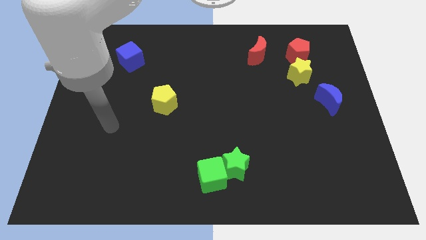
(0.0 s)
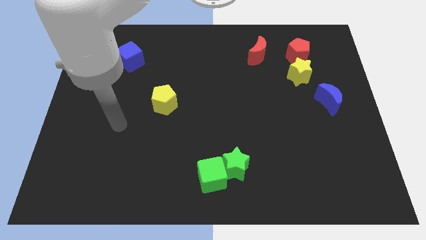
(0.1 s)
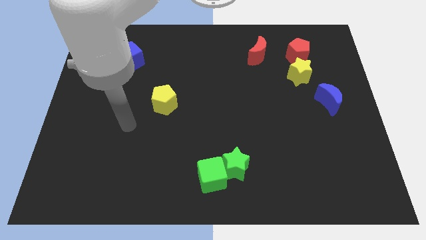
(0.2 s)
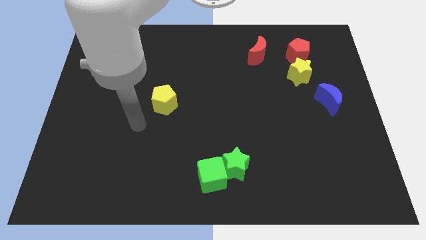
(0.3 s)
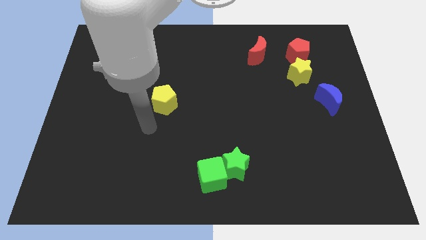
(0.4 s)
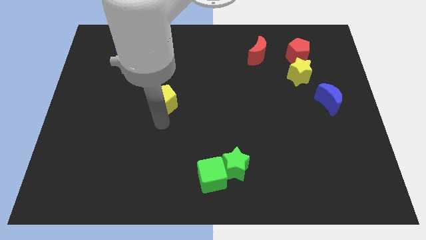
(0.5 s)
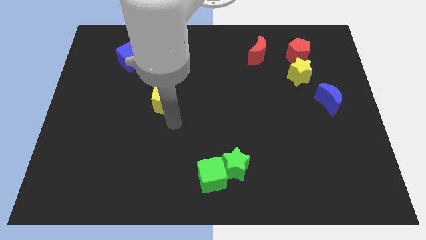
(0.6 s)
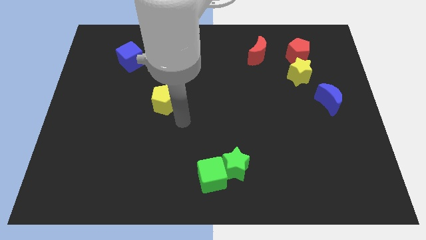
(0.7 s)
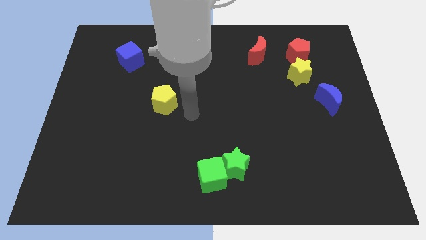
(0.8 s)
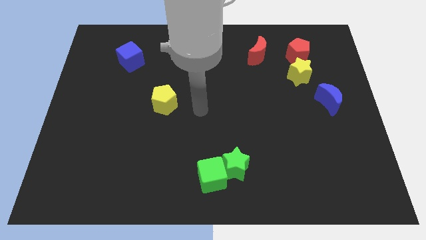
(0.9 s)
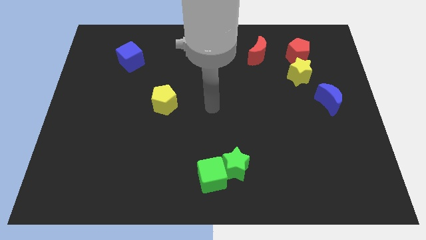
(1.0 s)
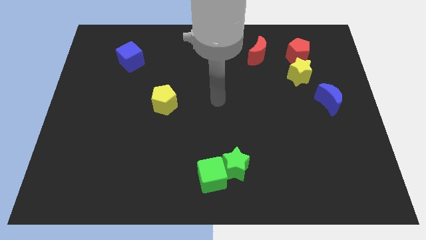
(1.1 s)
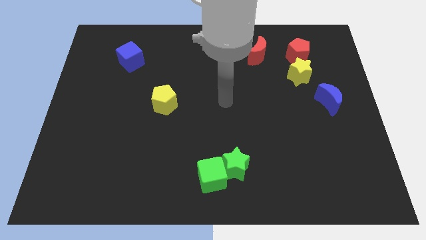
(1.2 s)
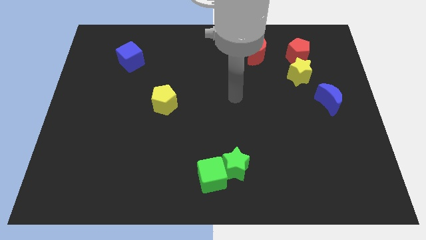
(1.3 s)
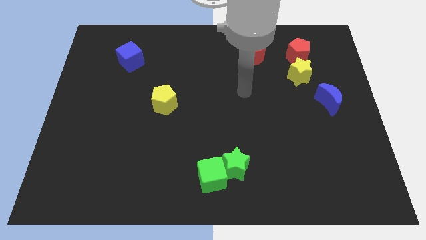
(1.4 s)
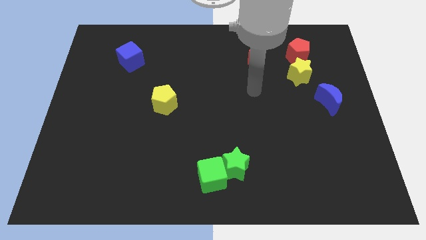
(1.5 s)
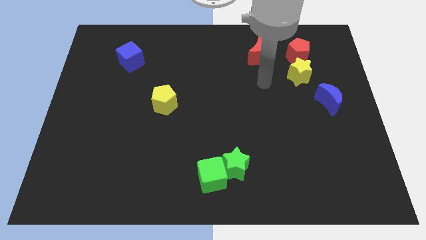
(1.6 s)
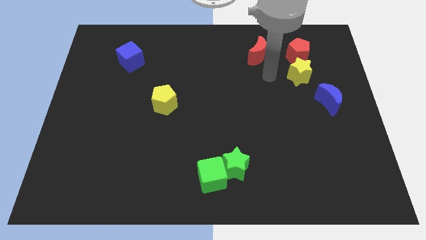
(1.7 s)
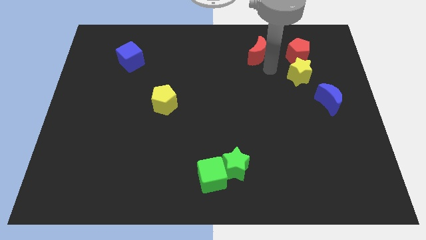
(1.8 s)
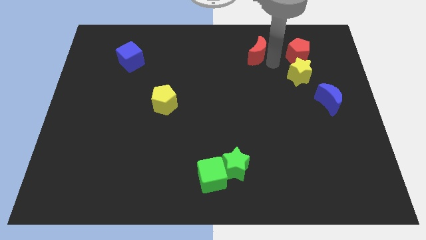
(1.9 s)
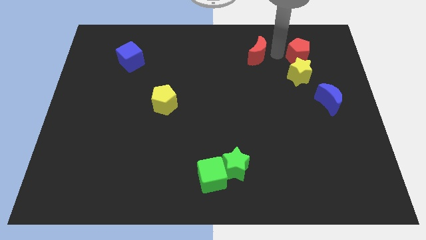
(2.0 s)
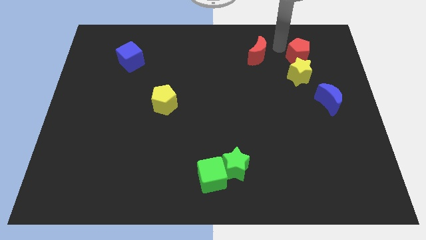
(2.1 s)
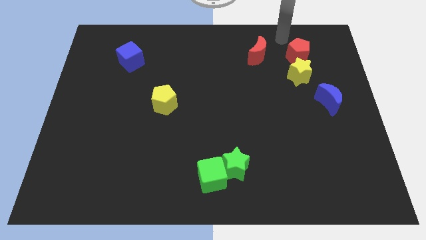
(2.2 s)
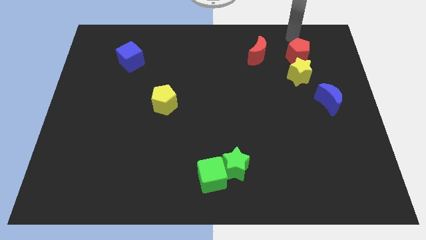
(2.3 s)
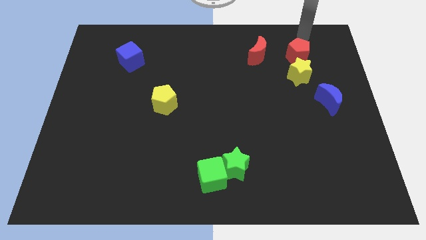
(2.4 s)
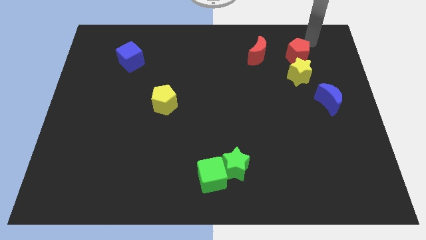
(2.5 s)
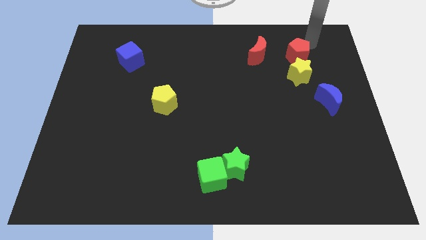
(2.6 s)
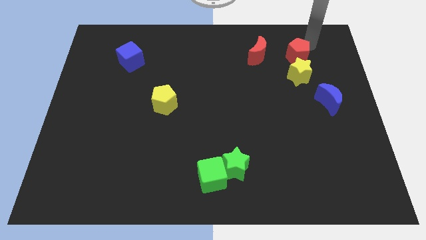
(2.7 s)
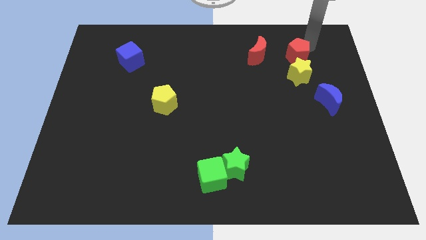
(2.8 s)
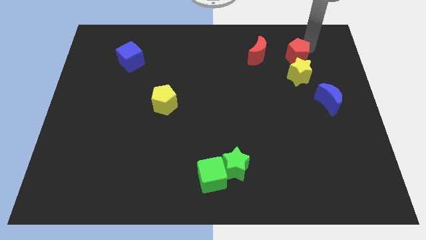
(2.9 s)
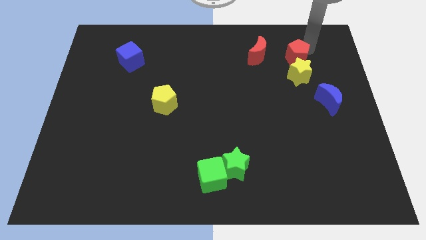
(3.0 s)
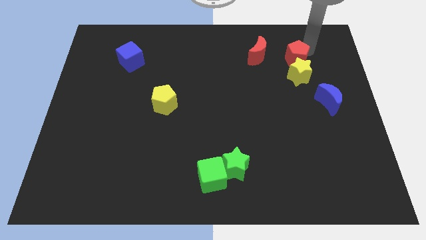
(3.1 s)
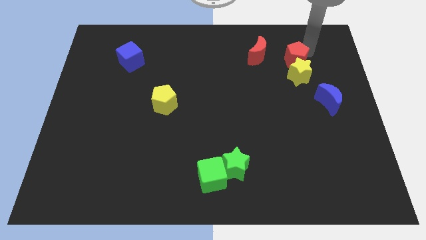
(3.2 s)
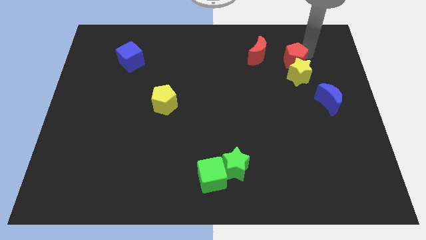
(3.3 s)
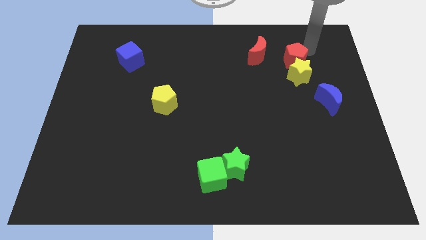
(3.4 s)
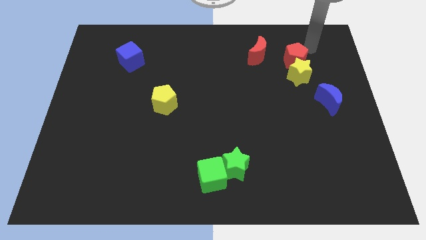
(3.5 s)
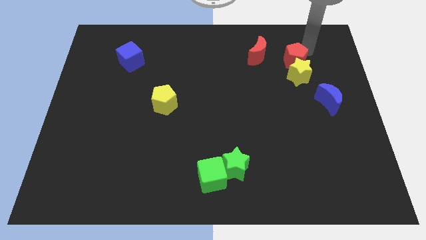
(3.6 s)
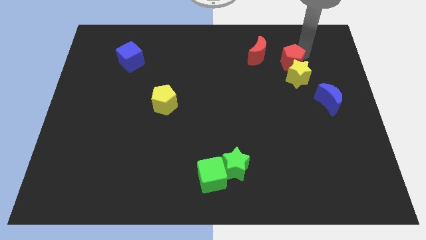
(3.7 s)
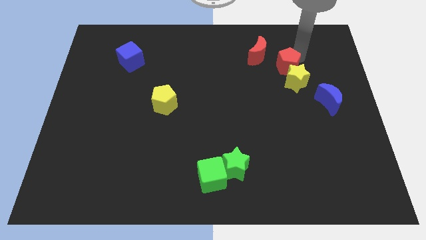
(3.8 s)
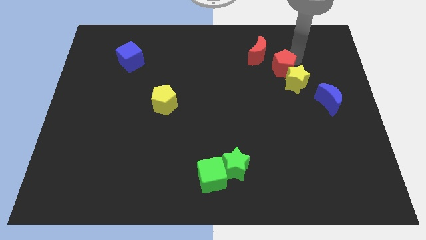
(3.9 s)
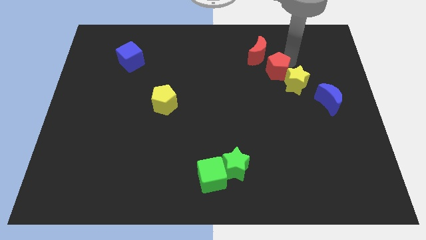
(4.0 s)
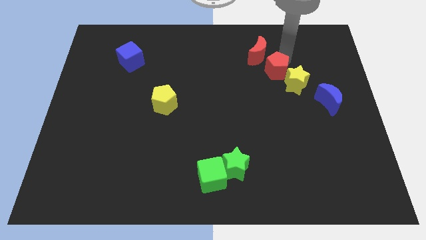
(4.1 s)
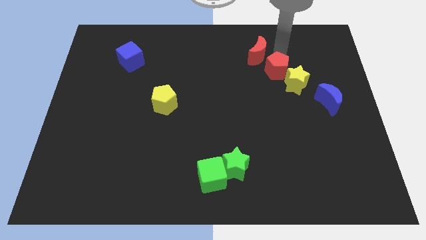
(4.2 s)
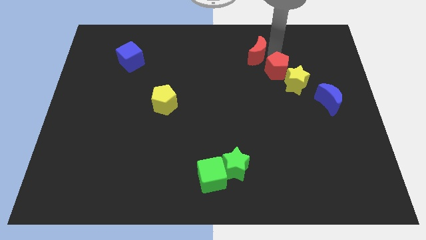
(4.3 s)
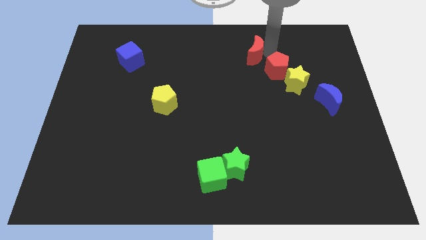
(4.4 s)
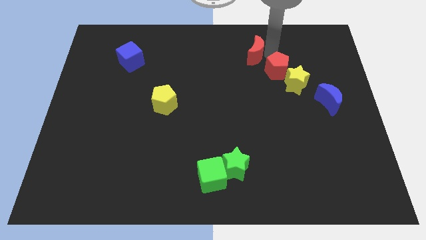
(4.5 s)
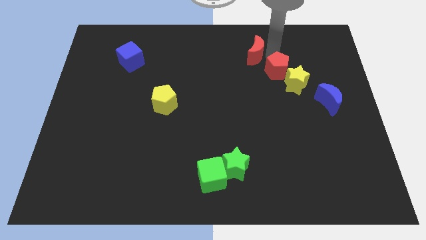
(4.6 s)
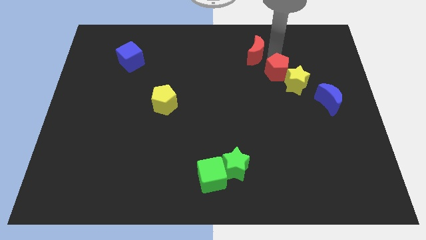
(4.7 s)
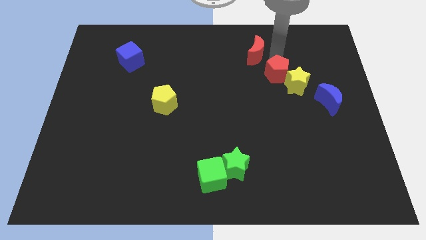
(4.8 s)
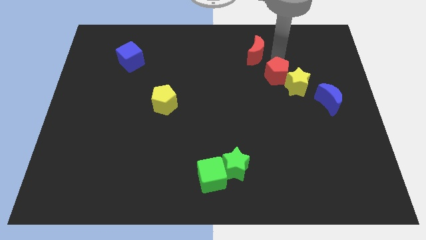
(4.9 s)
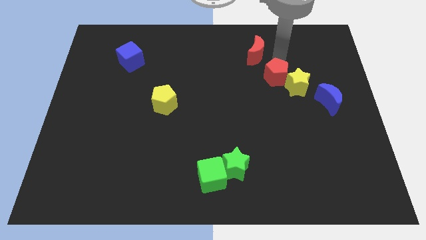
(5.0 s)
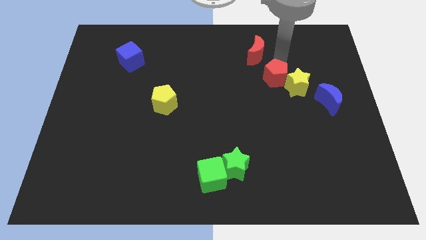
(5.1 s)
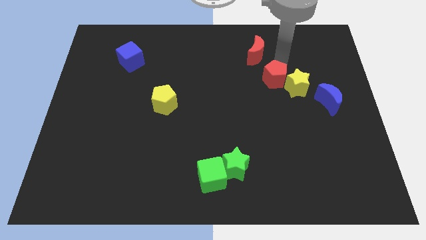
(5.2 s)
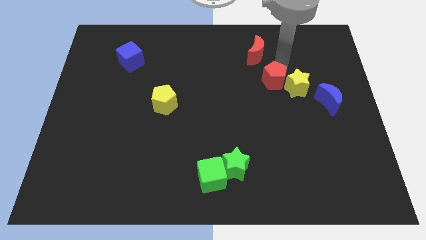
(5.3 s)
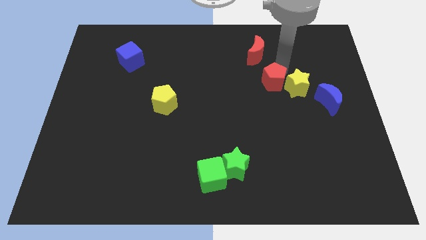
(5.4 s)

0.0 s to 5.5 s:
slightly move the red pentagon down

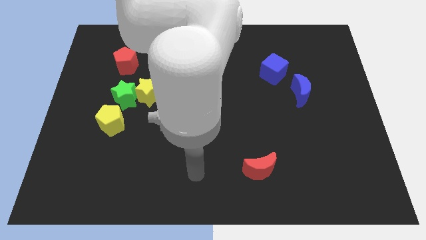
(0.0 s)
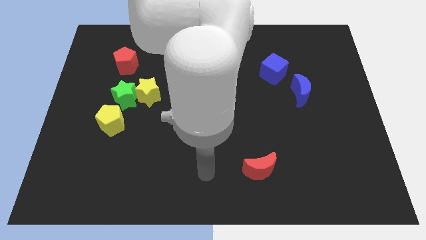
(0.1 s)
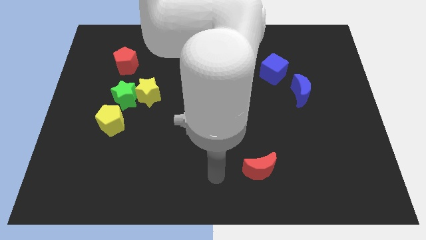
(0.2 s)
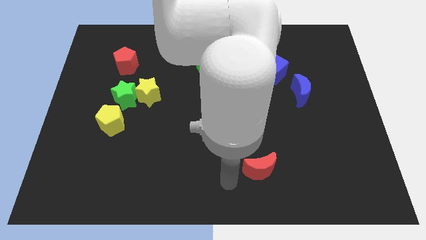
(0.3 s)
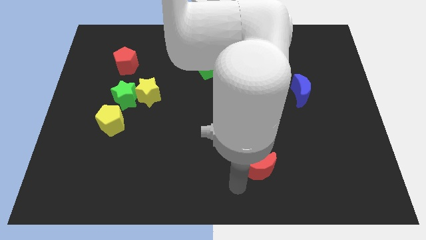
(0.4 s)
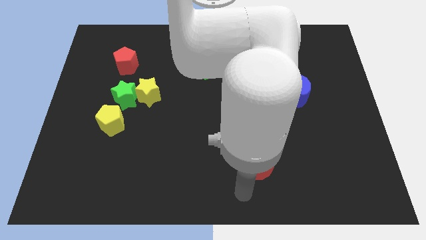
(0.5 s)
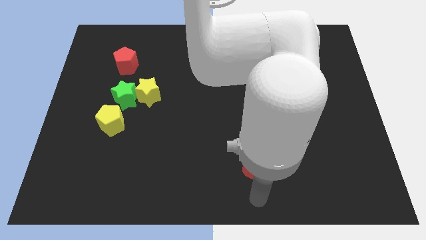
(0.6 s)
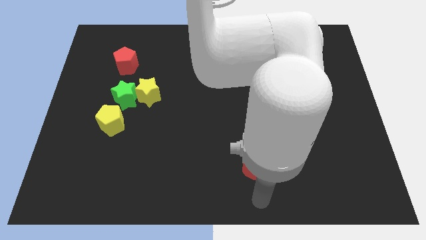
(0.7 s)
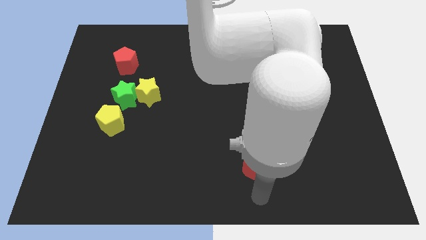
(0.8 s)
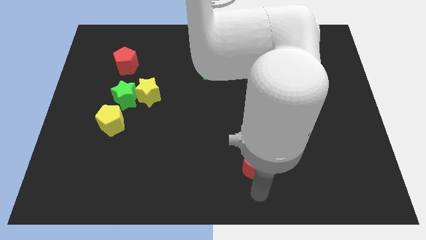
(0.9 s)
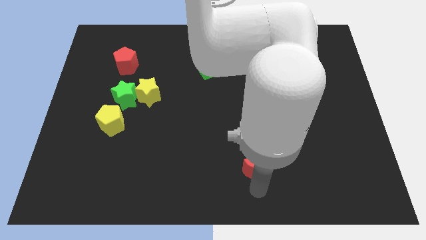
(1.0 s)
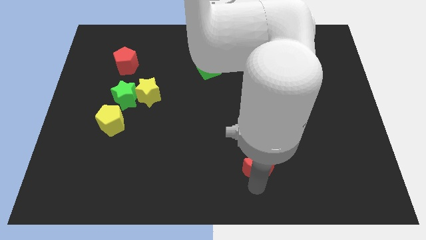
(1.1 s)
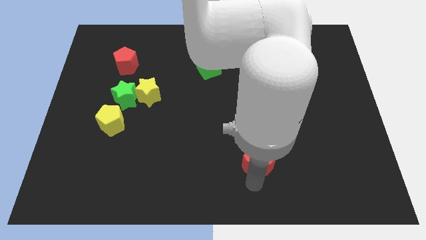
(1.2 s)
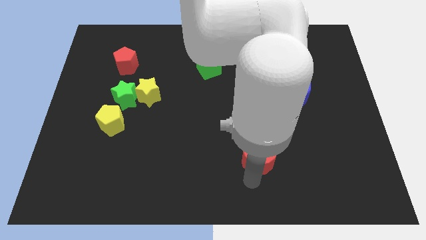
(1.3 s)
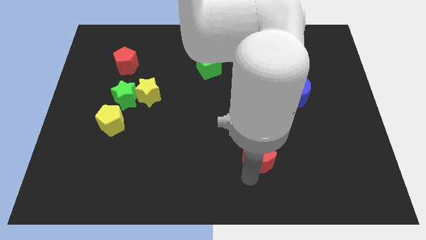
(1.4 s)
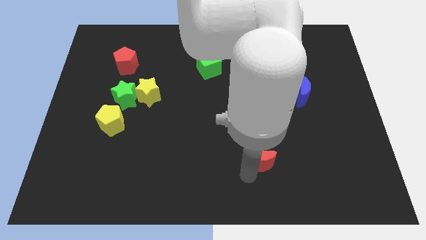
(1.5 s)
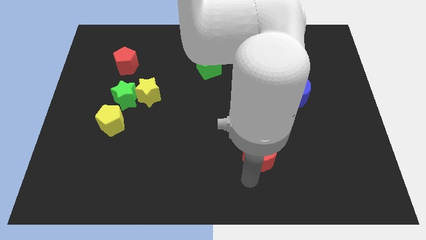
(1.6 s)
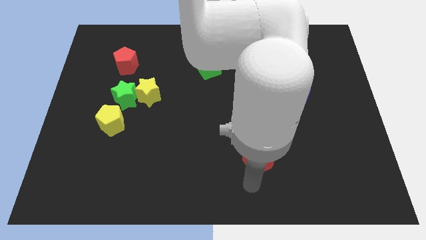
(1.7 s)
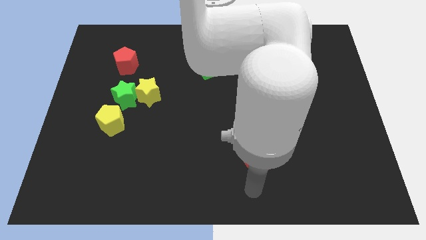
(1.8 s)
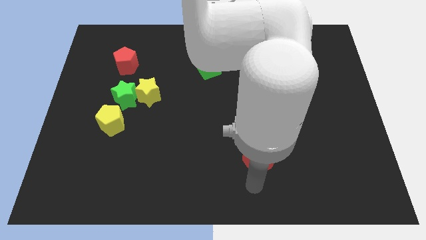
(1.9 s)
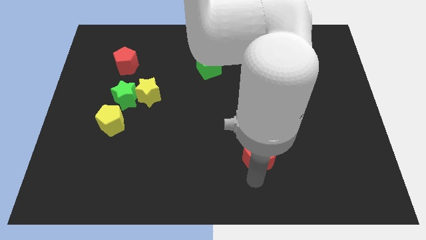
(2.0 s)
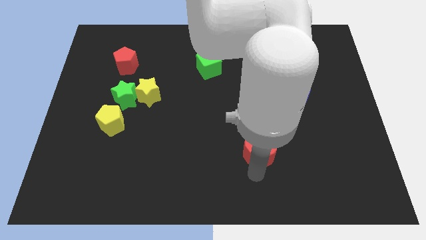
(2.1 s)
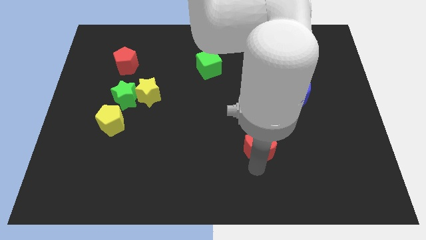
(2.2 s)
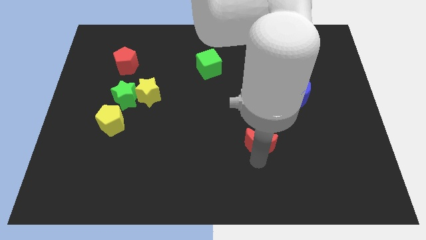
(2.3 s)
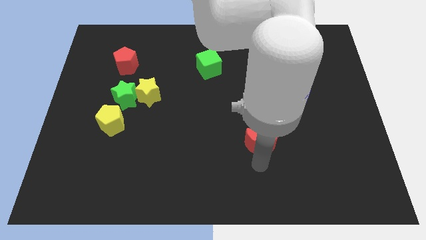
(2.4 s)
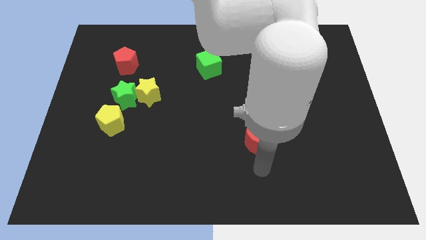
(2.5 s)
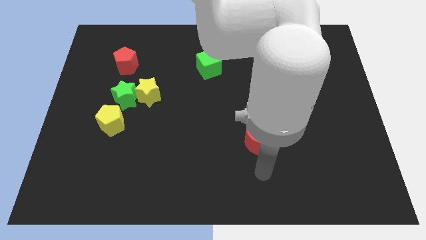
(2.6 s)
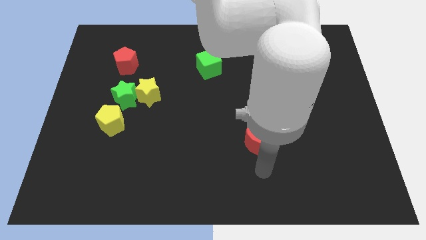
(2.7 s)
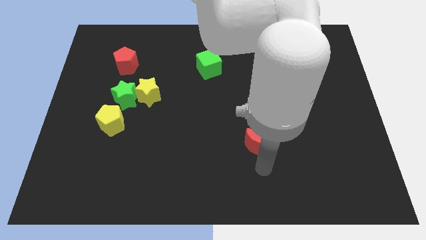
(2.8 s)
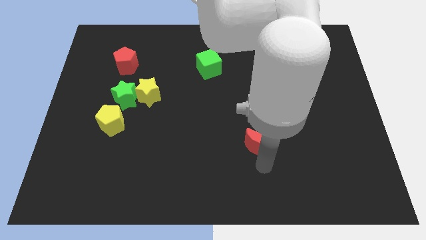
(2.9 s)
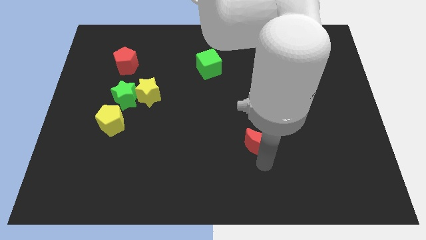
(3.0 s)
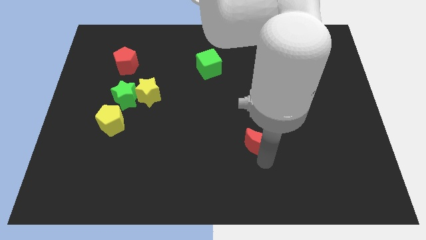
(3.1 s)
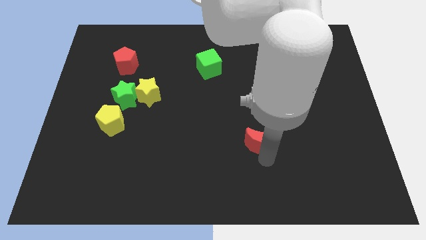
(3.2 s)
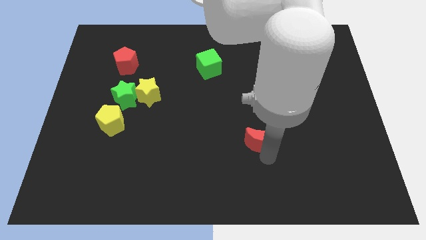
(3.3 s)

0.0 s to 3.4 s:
slide the red moon a little bit up
